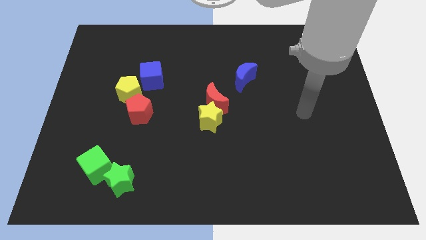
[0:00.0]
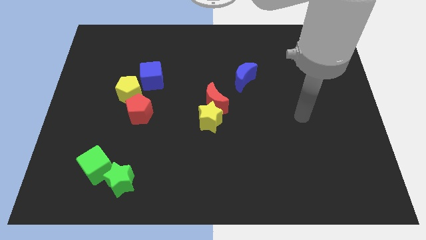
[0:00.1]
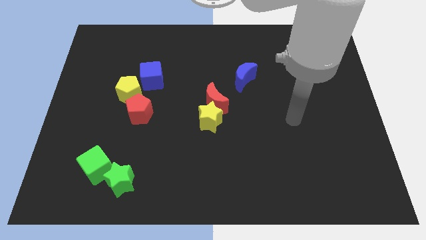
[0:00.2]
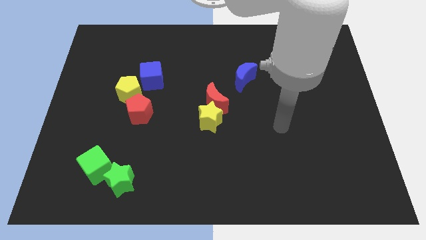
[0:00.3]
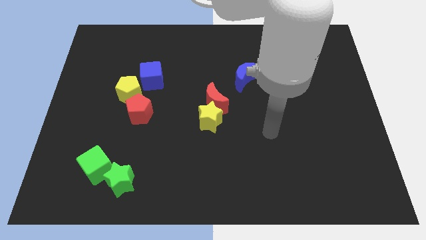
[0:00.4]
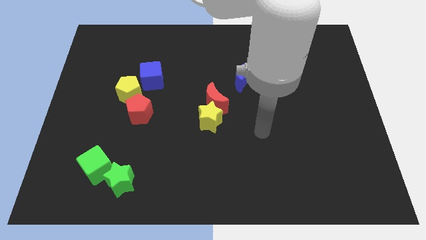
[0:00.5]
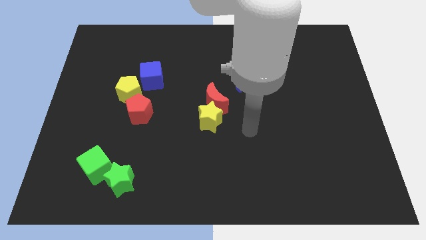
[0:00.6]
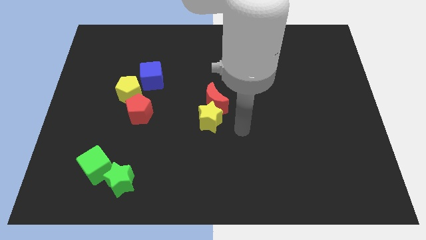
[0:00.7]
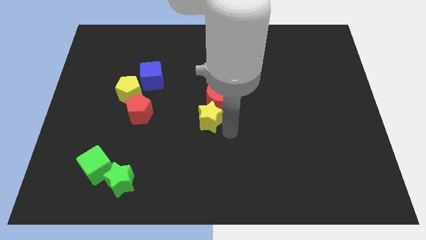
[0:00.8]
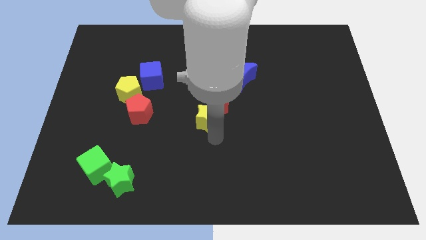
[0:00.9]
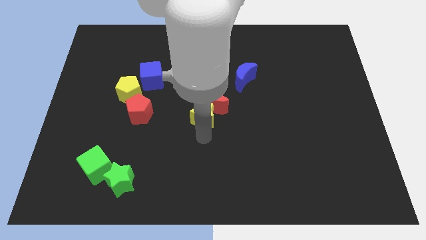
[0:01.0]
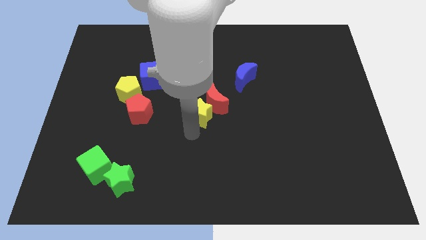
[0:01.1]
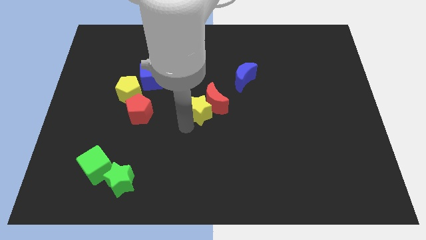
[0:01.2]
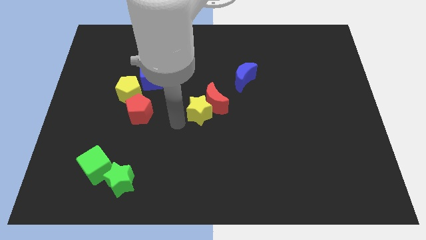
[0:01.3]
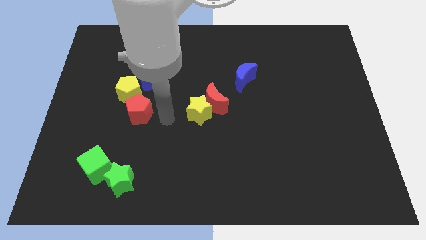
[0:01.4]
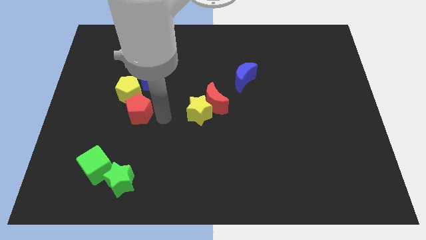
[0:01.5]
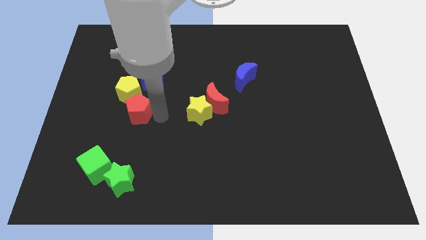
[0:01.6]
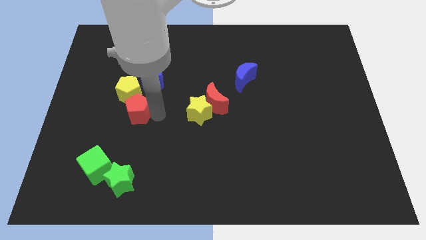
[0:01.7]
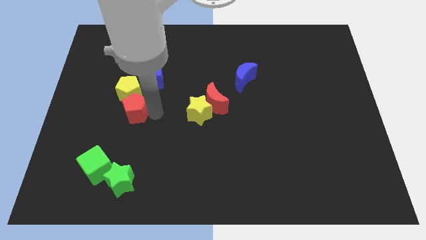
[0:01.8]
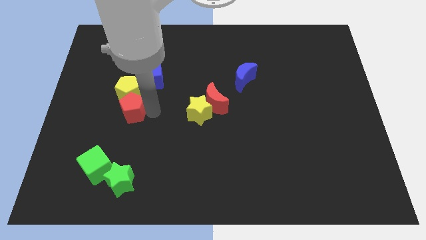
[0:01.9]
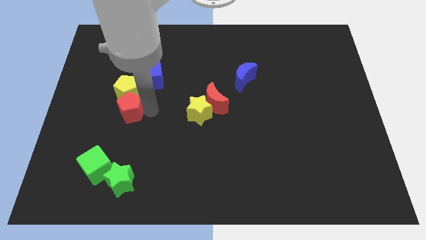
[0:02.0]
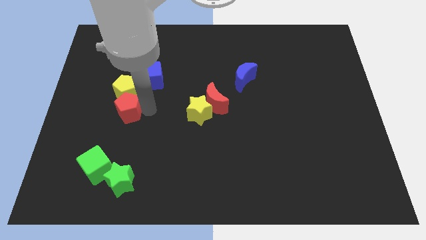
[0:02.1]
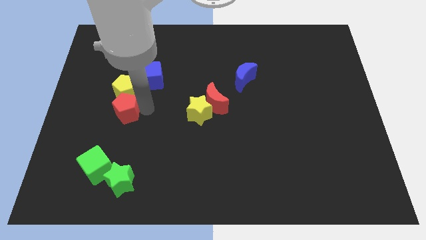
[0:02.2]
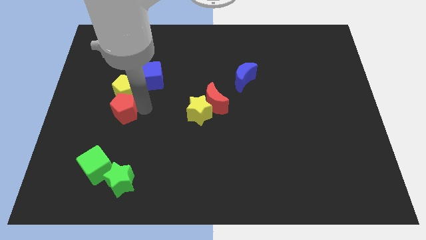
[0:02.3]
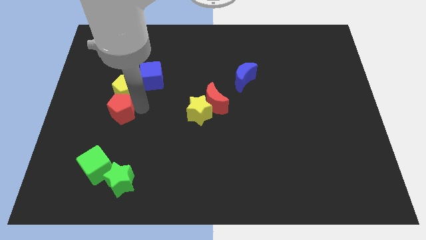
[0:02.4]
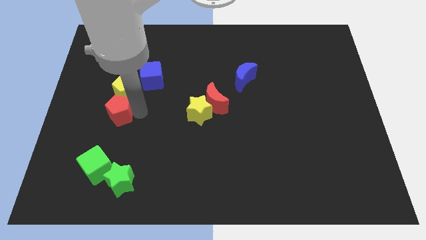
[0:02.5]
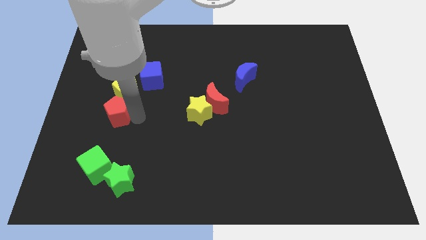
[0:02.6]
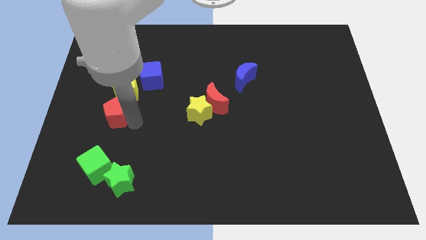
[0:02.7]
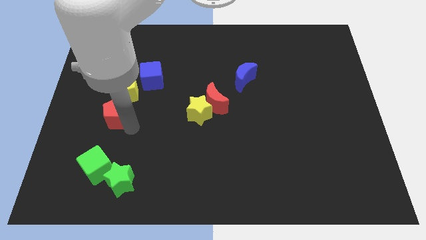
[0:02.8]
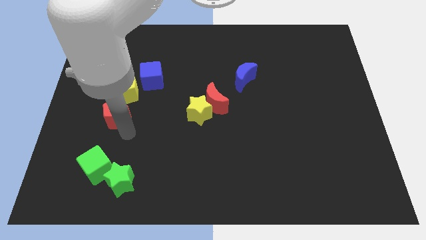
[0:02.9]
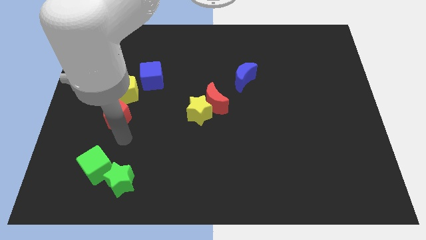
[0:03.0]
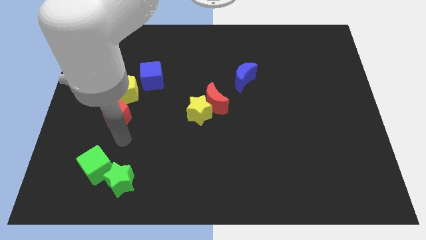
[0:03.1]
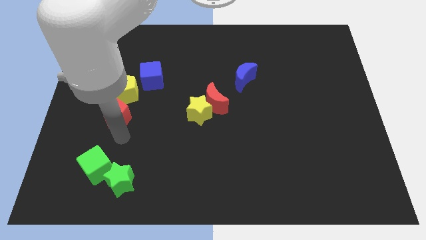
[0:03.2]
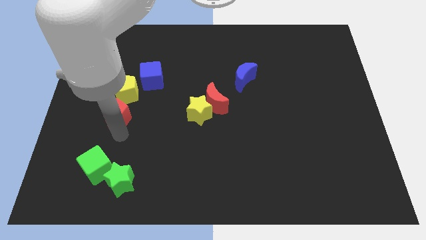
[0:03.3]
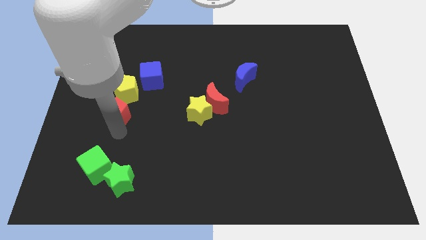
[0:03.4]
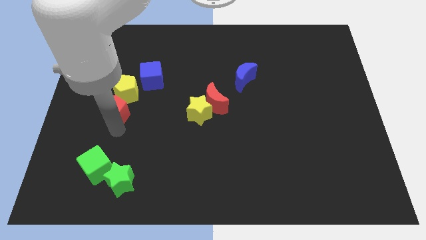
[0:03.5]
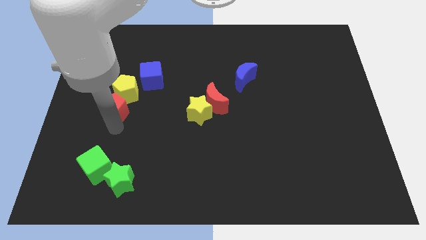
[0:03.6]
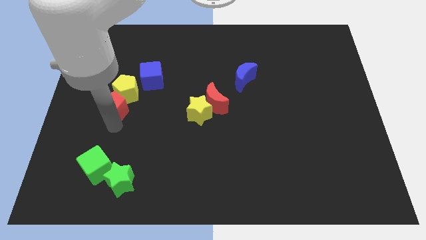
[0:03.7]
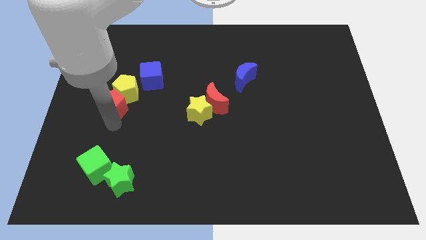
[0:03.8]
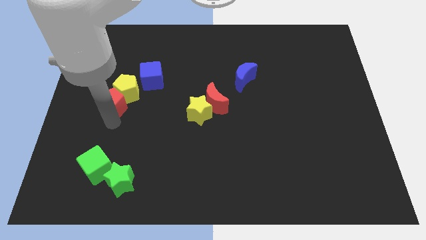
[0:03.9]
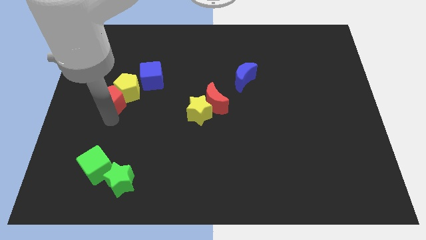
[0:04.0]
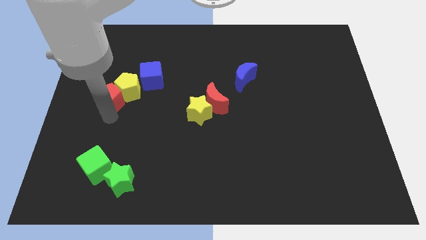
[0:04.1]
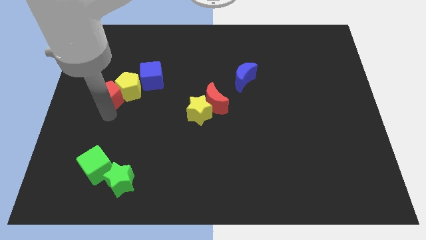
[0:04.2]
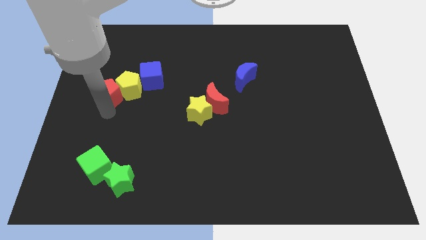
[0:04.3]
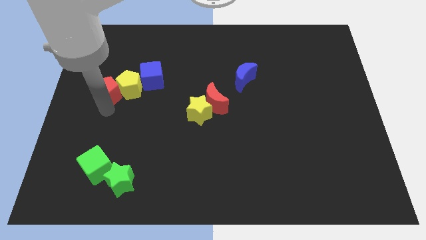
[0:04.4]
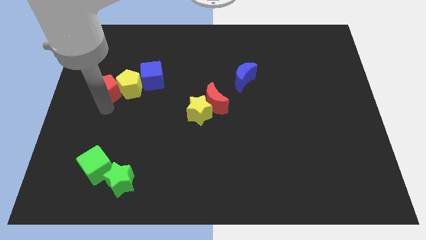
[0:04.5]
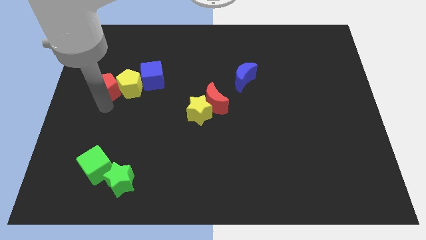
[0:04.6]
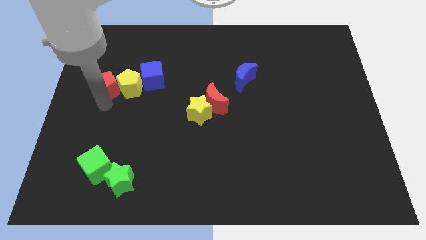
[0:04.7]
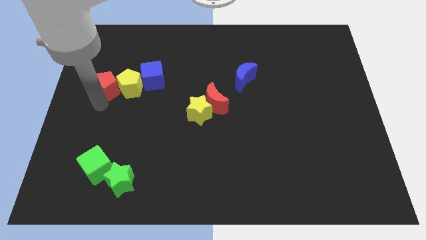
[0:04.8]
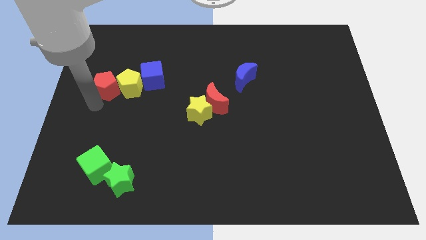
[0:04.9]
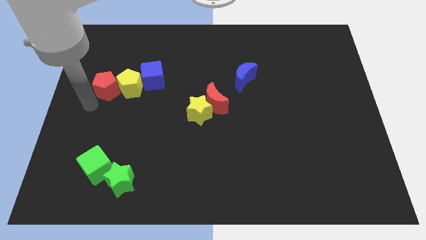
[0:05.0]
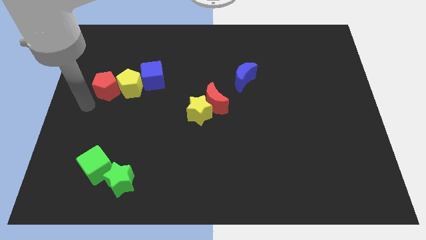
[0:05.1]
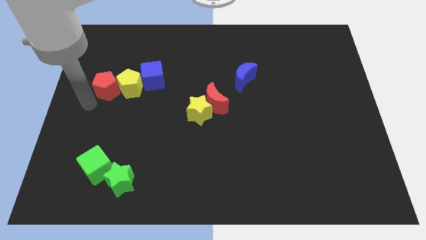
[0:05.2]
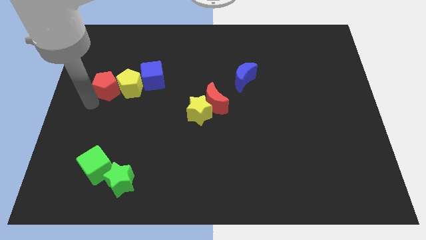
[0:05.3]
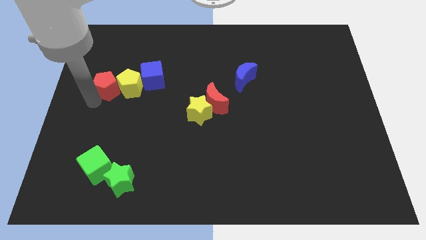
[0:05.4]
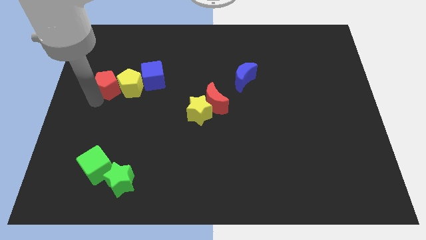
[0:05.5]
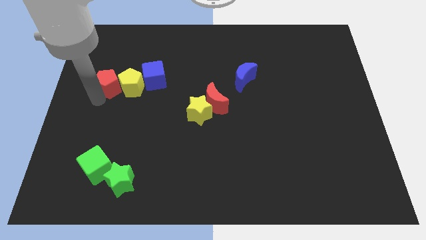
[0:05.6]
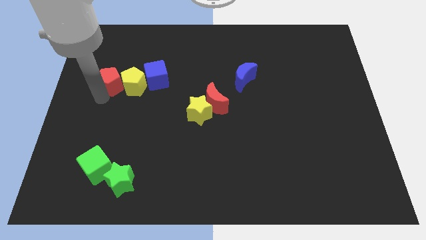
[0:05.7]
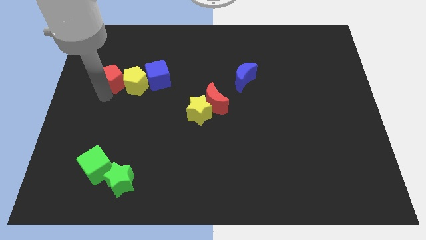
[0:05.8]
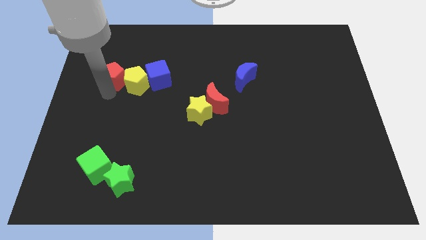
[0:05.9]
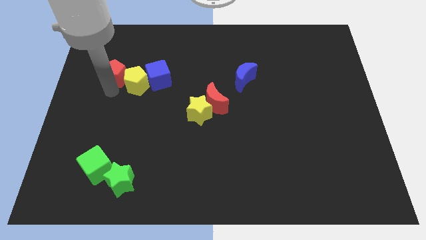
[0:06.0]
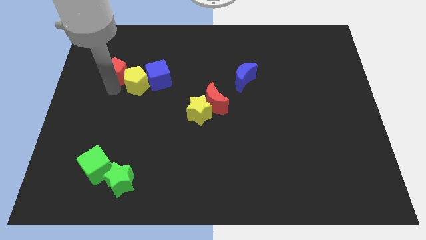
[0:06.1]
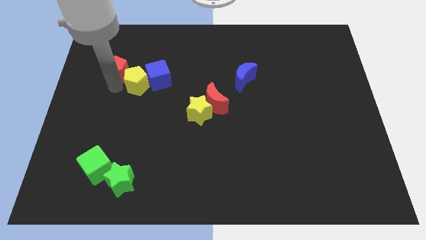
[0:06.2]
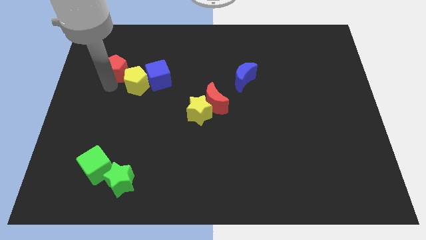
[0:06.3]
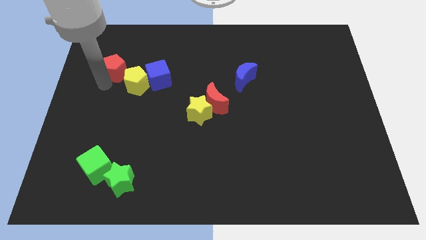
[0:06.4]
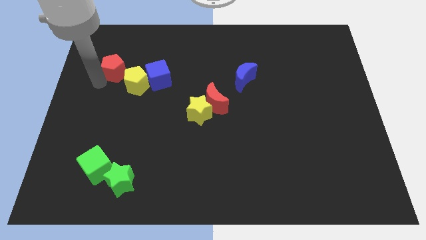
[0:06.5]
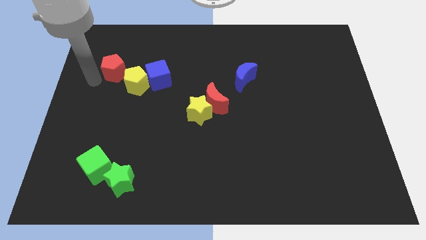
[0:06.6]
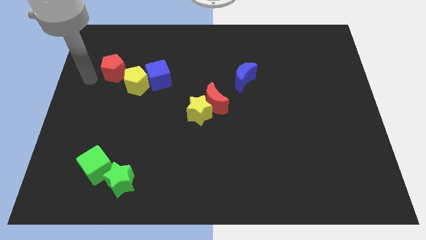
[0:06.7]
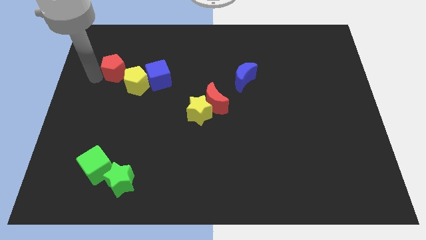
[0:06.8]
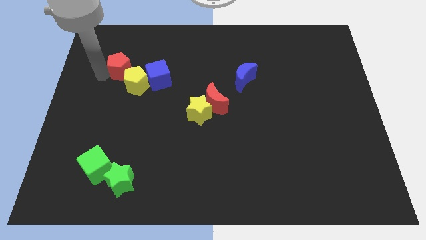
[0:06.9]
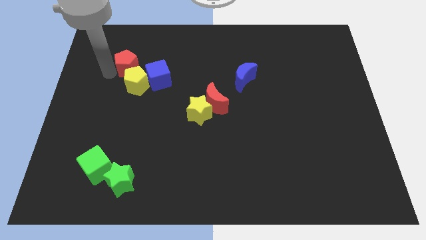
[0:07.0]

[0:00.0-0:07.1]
move the red pentagon to the top left side of the blue cube

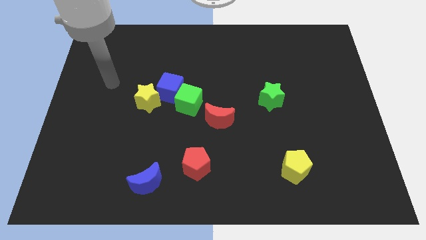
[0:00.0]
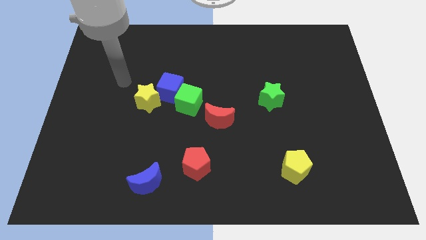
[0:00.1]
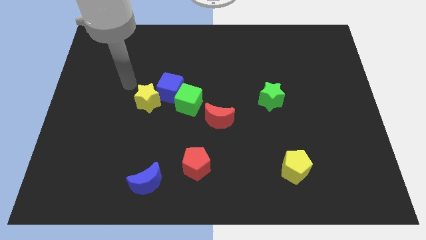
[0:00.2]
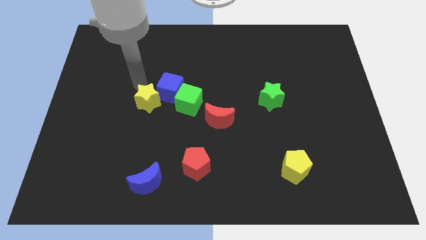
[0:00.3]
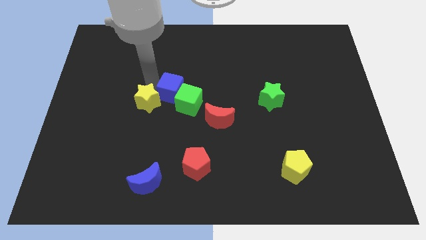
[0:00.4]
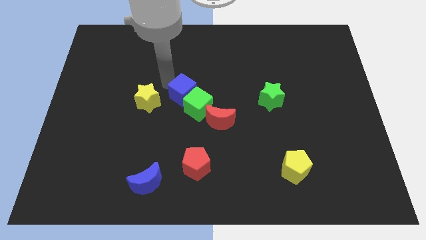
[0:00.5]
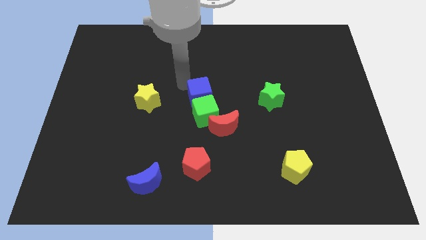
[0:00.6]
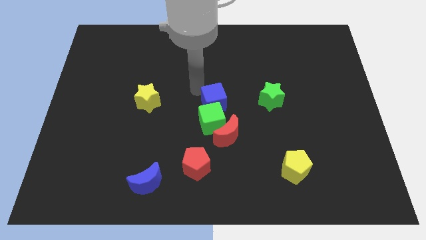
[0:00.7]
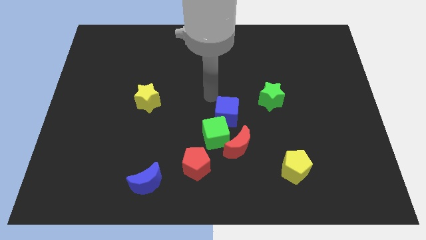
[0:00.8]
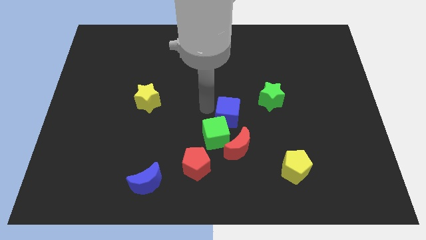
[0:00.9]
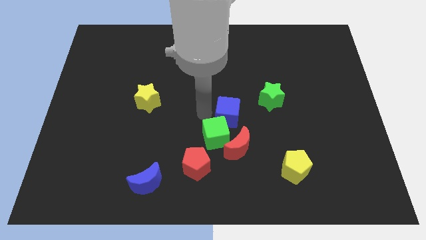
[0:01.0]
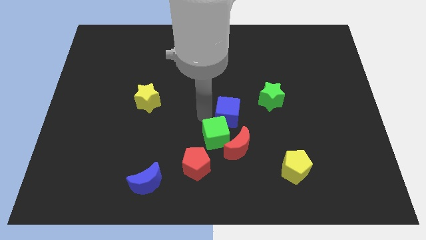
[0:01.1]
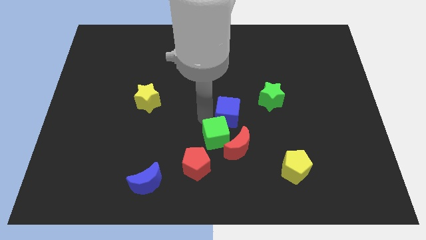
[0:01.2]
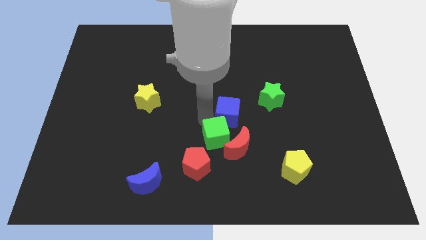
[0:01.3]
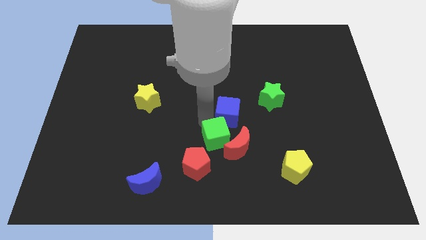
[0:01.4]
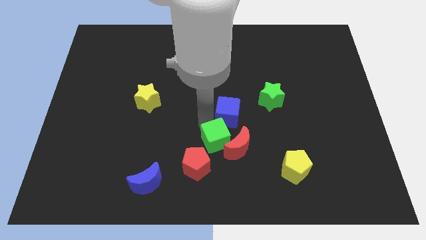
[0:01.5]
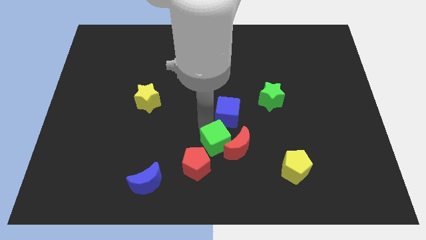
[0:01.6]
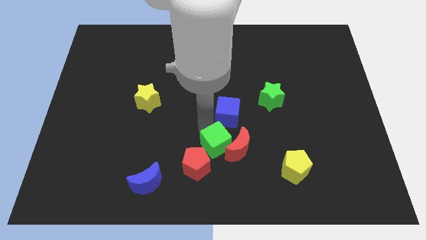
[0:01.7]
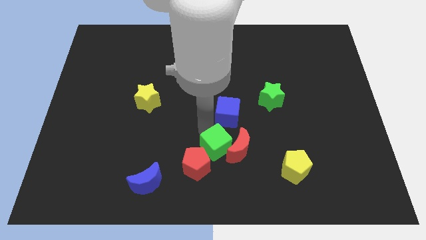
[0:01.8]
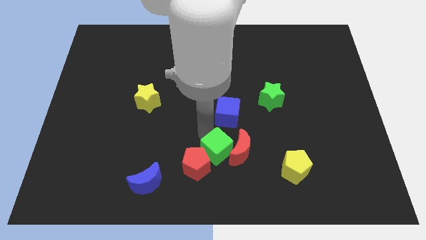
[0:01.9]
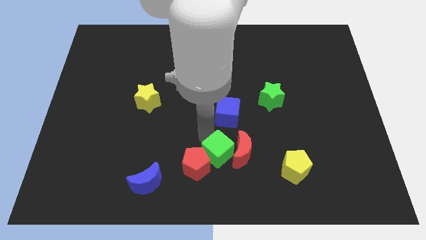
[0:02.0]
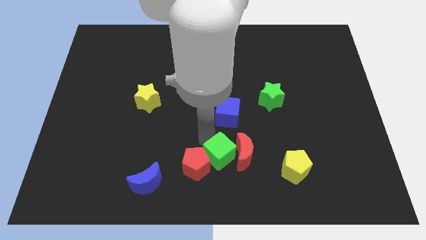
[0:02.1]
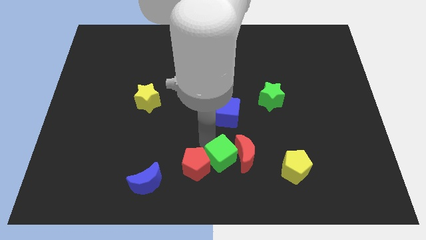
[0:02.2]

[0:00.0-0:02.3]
put the green cube just left of the yellow pentagon
